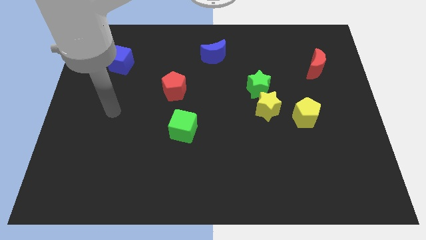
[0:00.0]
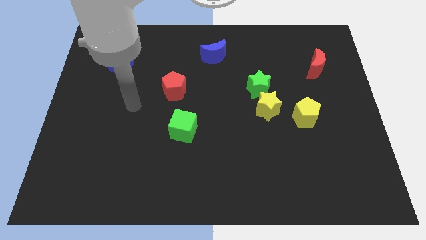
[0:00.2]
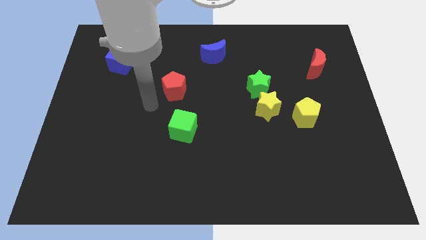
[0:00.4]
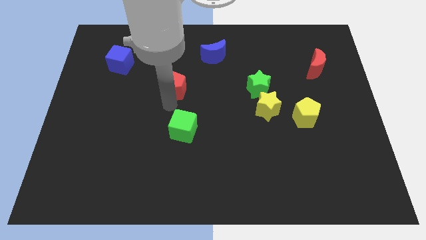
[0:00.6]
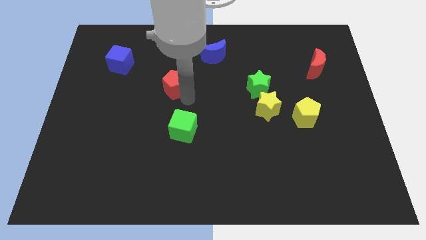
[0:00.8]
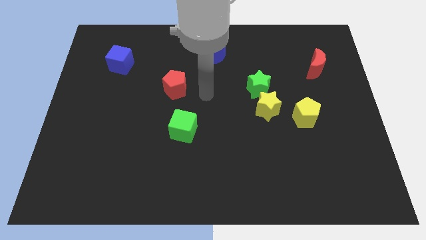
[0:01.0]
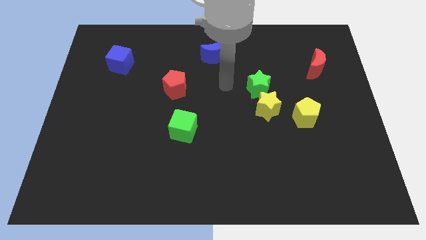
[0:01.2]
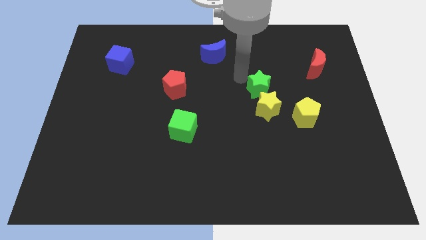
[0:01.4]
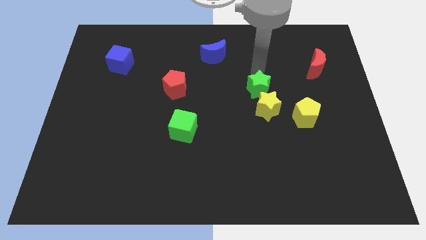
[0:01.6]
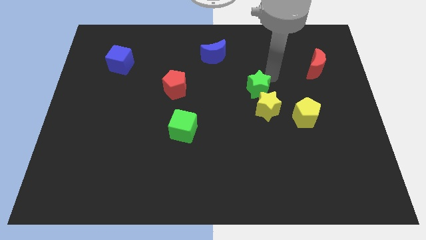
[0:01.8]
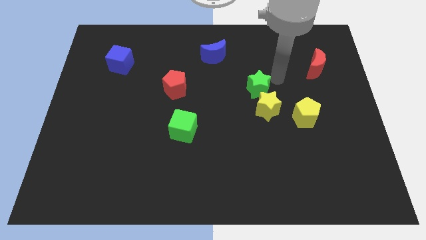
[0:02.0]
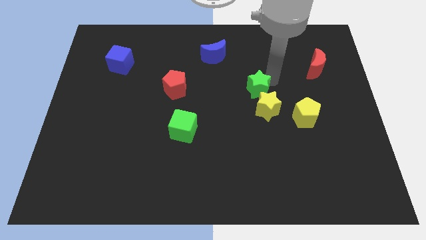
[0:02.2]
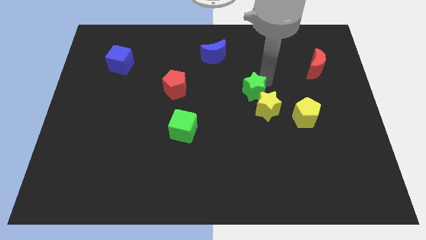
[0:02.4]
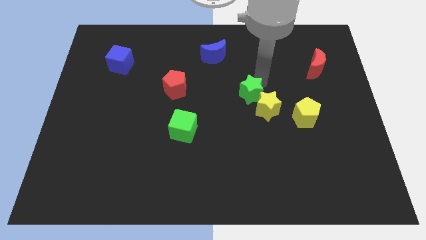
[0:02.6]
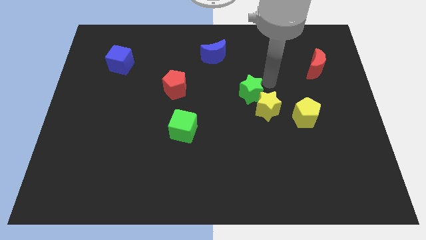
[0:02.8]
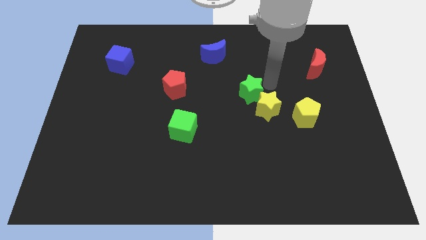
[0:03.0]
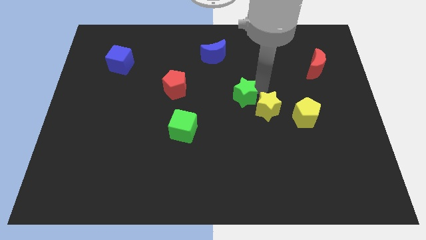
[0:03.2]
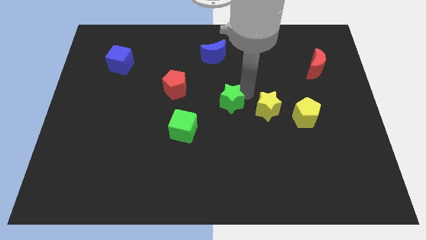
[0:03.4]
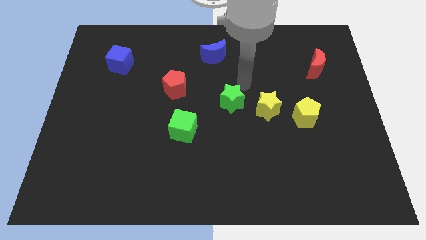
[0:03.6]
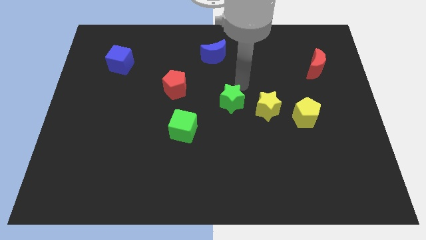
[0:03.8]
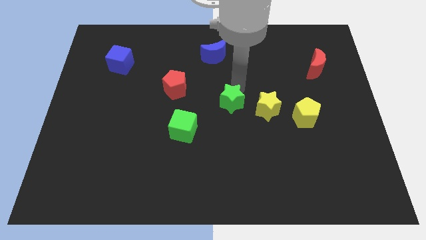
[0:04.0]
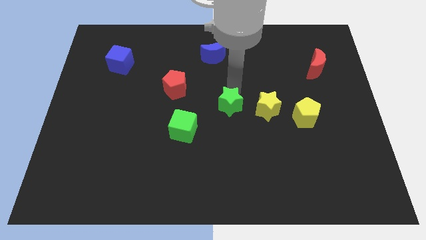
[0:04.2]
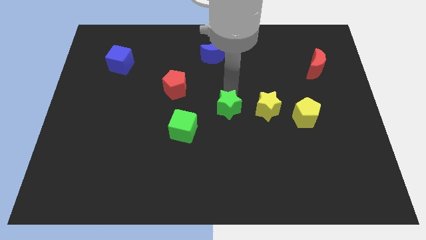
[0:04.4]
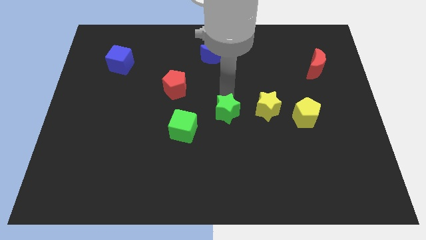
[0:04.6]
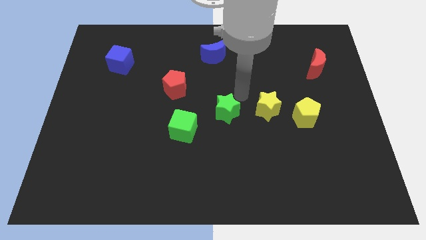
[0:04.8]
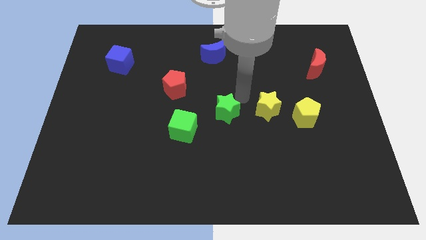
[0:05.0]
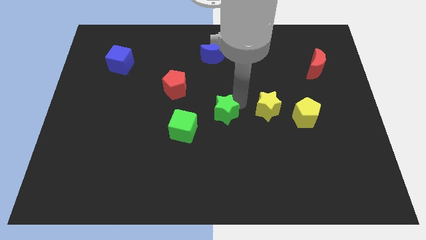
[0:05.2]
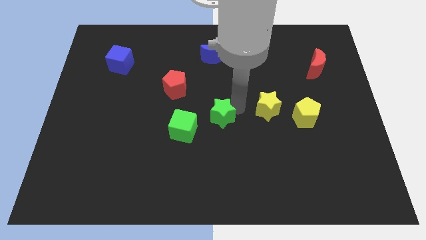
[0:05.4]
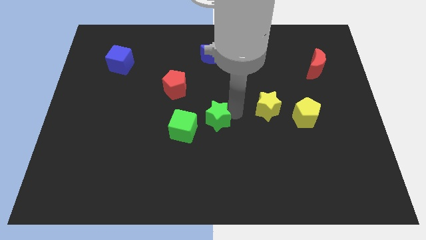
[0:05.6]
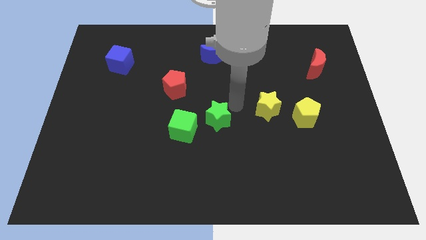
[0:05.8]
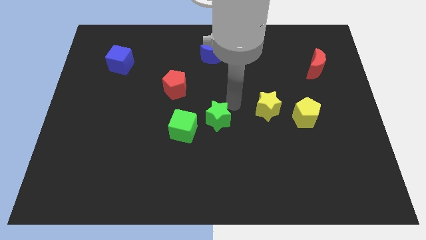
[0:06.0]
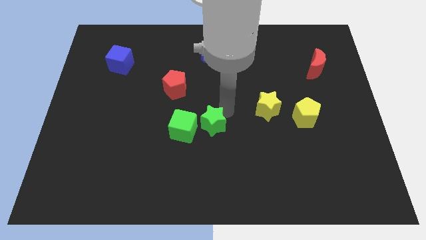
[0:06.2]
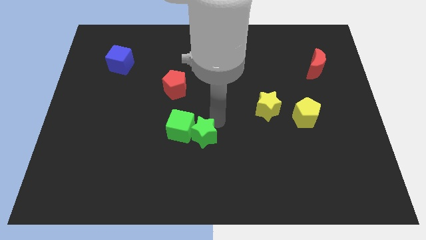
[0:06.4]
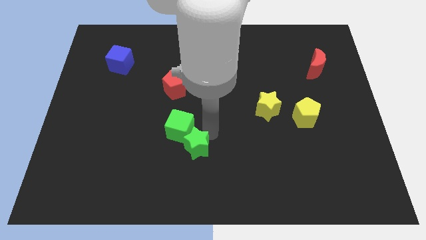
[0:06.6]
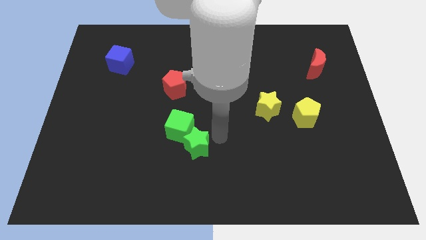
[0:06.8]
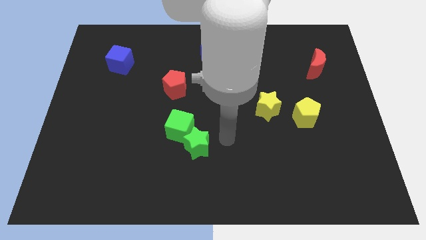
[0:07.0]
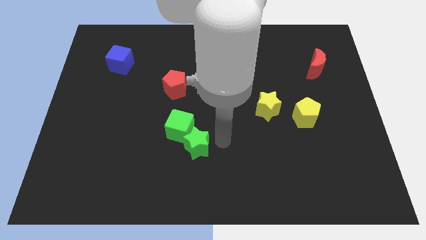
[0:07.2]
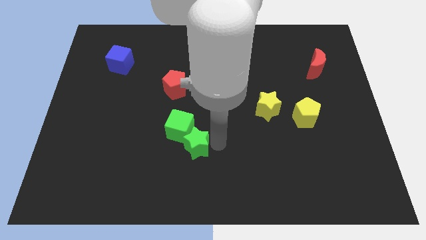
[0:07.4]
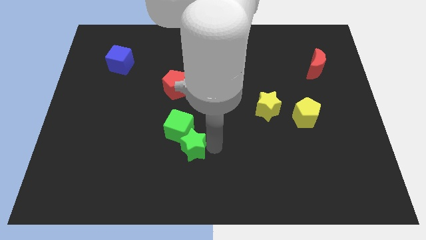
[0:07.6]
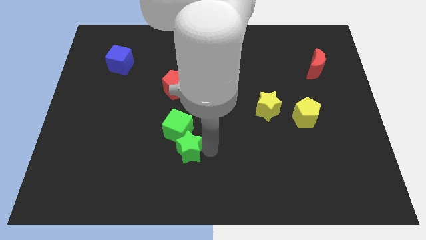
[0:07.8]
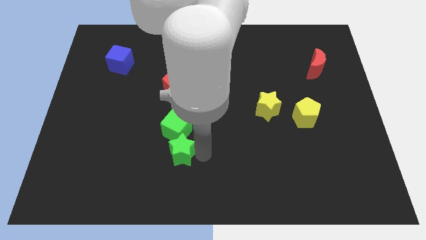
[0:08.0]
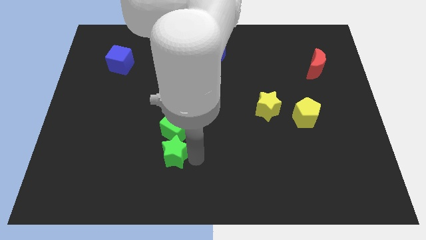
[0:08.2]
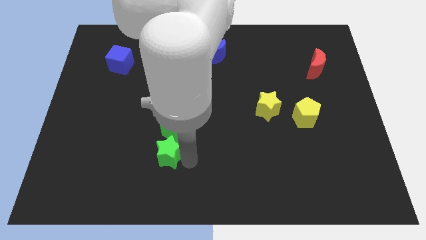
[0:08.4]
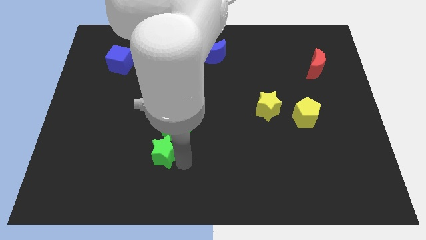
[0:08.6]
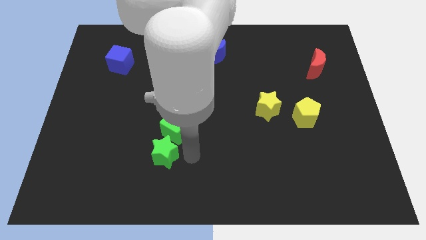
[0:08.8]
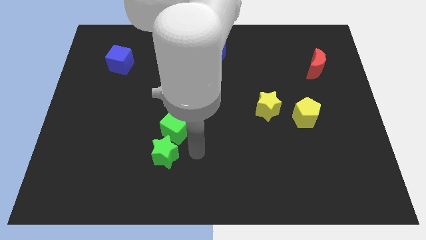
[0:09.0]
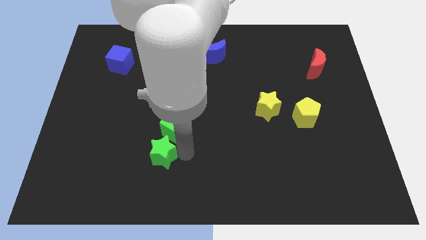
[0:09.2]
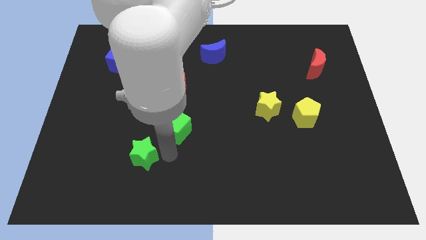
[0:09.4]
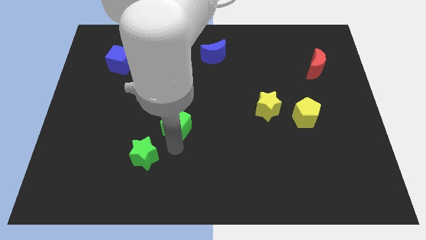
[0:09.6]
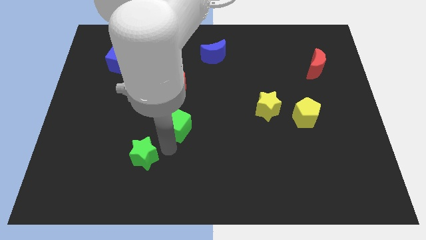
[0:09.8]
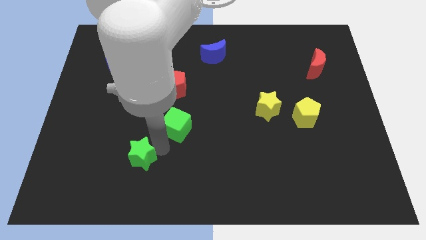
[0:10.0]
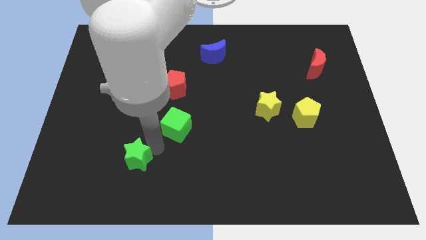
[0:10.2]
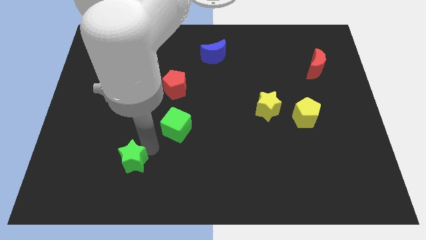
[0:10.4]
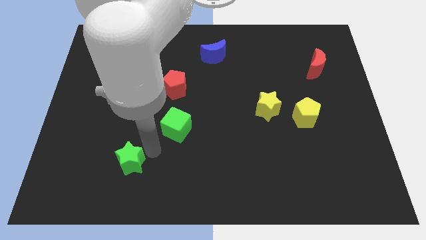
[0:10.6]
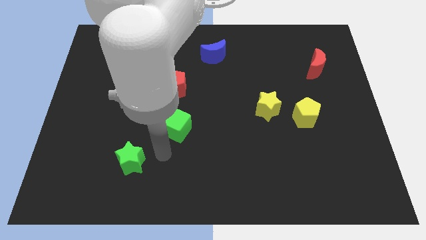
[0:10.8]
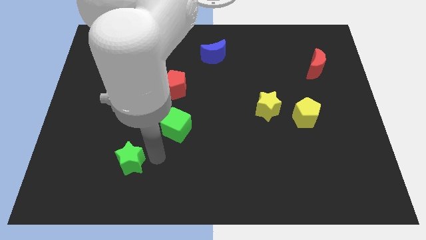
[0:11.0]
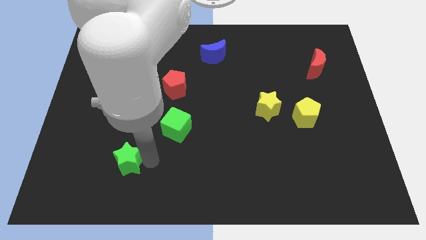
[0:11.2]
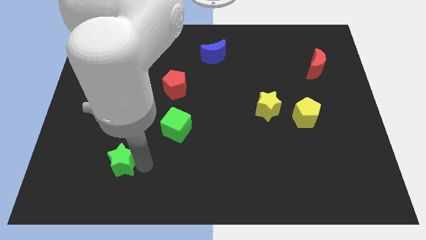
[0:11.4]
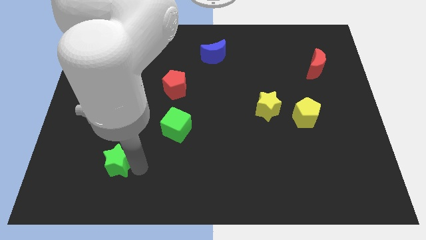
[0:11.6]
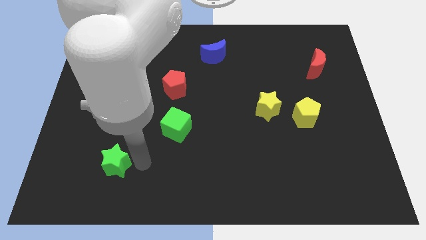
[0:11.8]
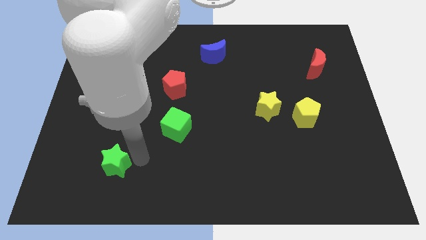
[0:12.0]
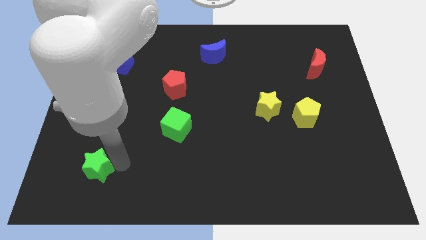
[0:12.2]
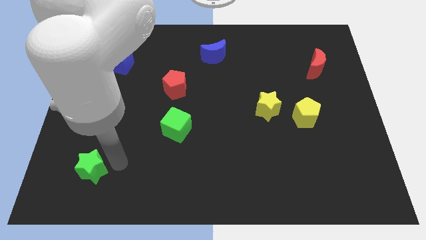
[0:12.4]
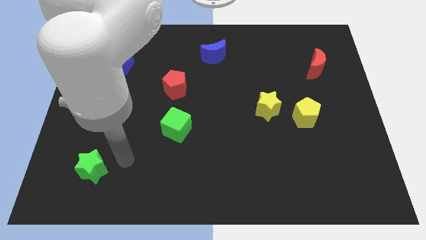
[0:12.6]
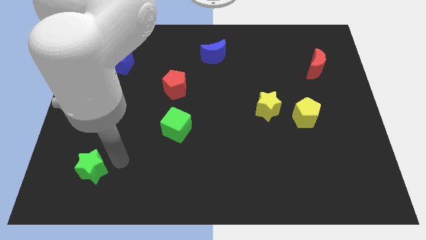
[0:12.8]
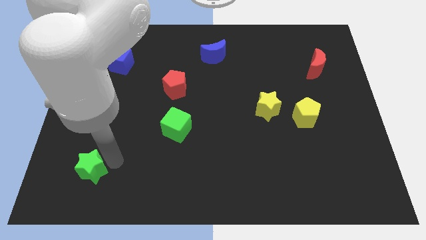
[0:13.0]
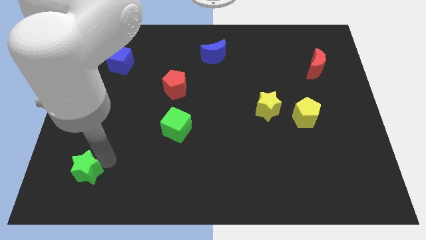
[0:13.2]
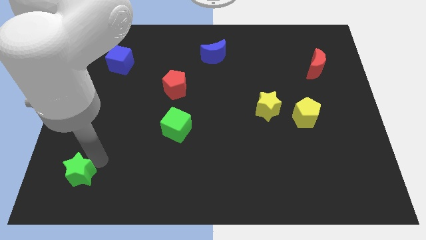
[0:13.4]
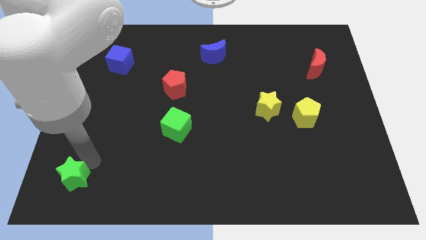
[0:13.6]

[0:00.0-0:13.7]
put the green star to the bottom left corner
